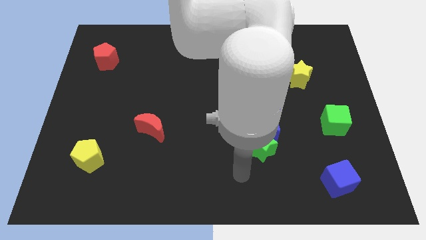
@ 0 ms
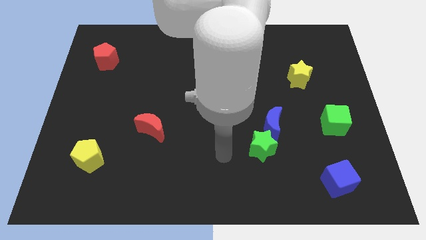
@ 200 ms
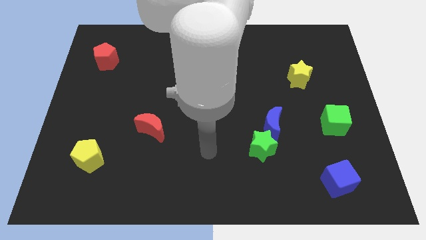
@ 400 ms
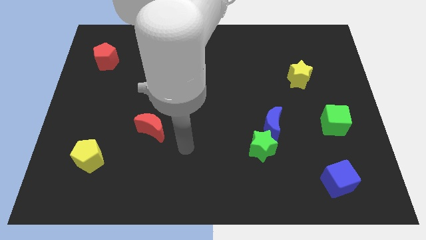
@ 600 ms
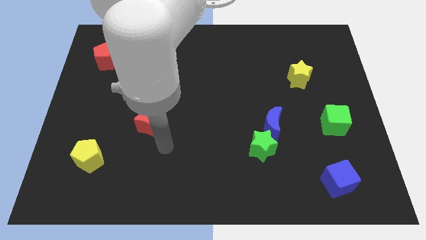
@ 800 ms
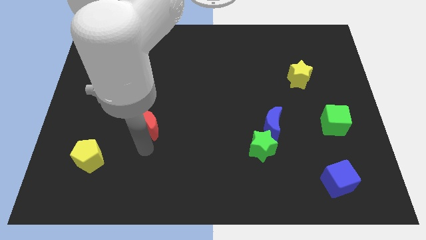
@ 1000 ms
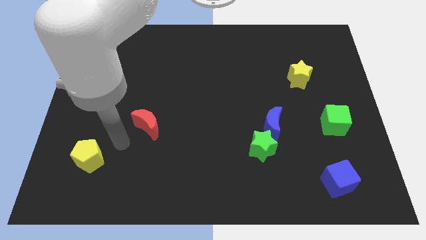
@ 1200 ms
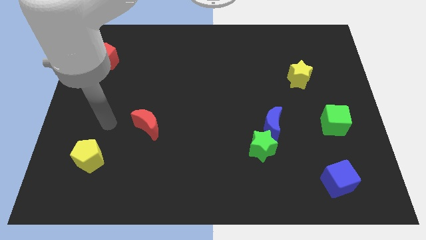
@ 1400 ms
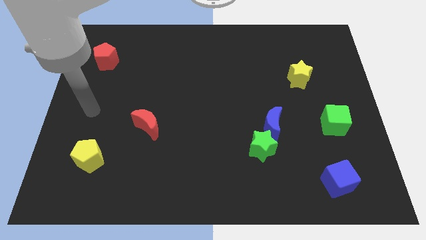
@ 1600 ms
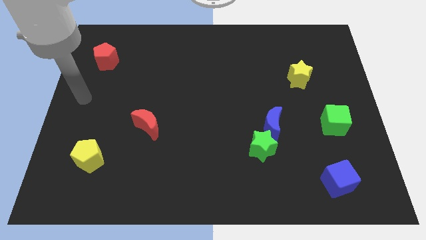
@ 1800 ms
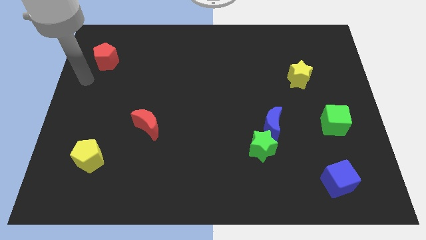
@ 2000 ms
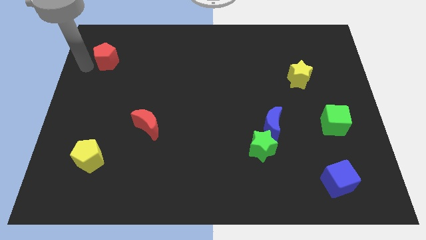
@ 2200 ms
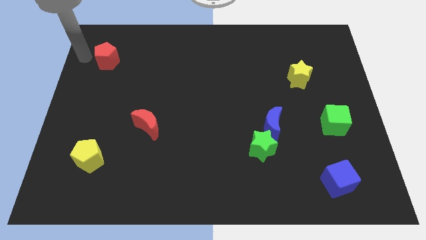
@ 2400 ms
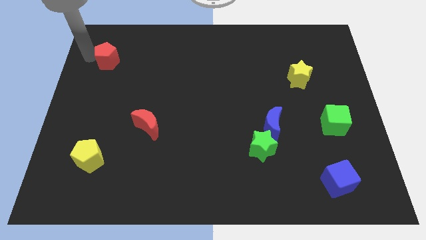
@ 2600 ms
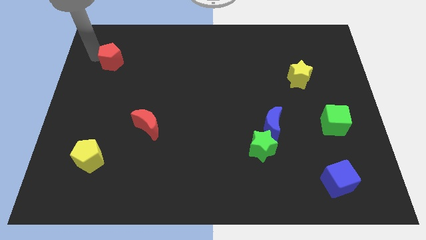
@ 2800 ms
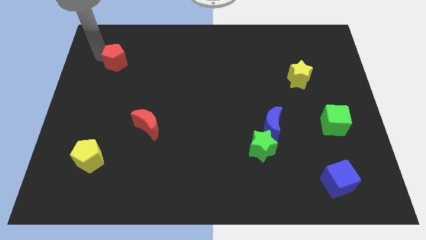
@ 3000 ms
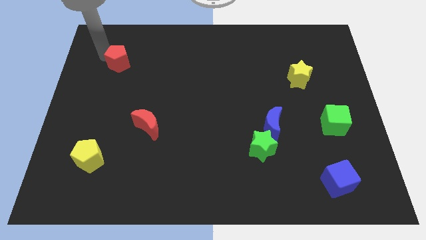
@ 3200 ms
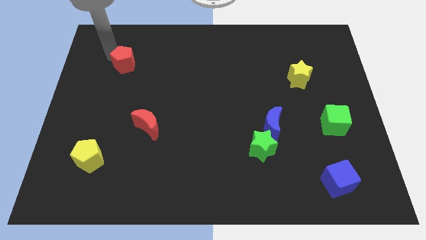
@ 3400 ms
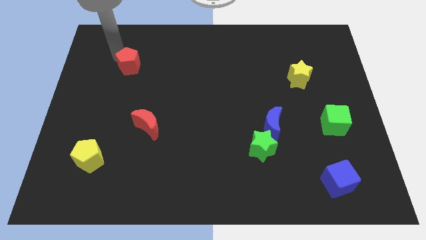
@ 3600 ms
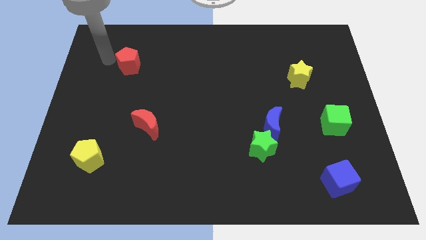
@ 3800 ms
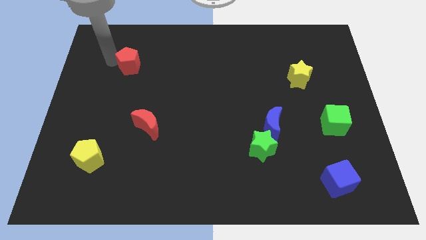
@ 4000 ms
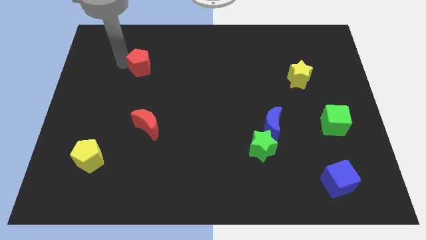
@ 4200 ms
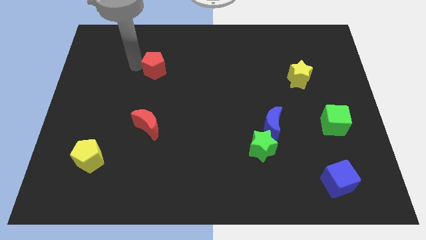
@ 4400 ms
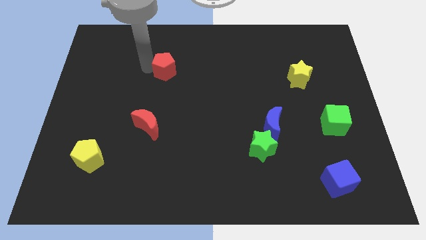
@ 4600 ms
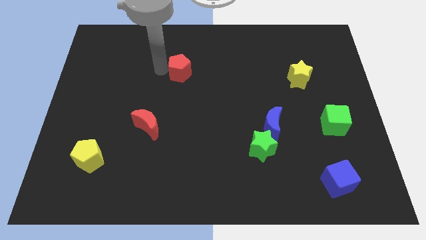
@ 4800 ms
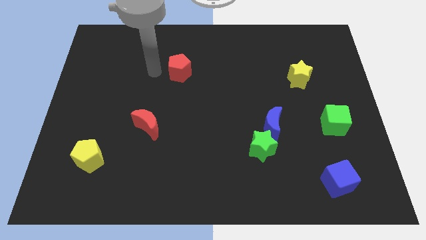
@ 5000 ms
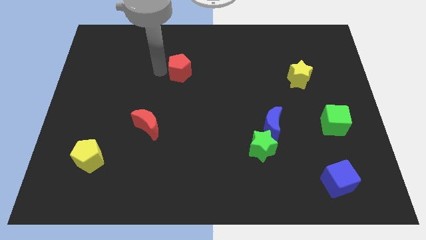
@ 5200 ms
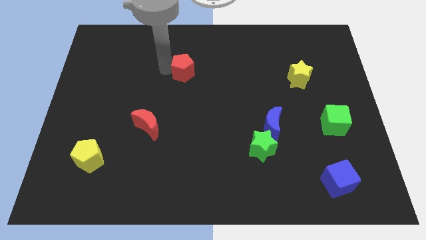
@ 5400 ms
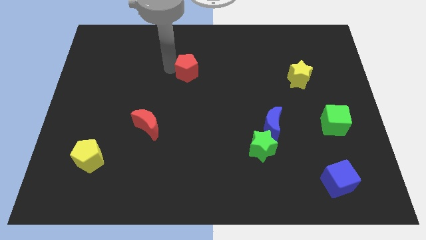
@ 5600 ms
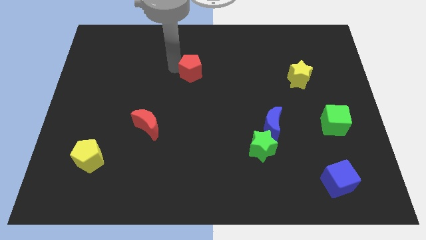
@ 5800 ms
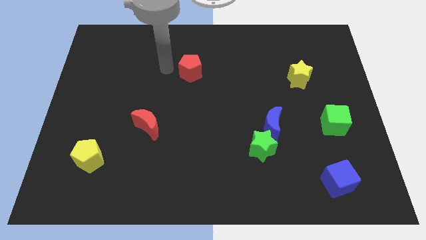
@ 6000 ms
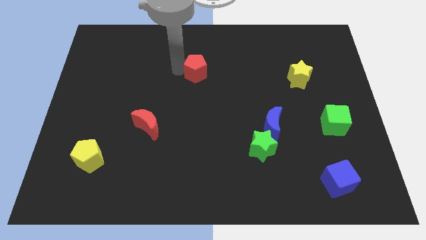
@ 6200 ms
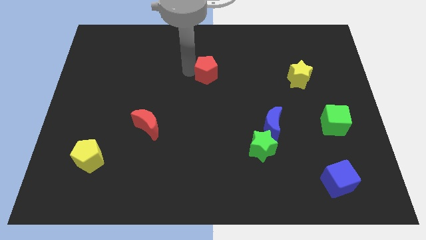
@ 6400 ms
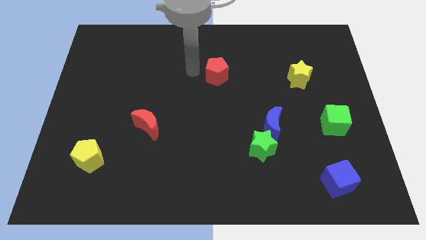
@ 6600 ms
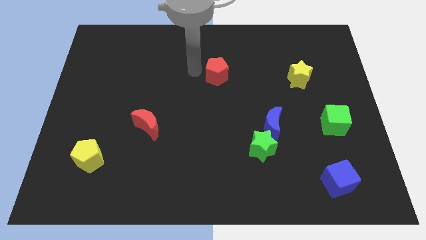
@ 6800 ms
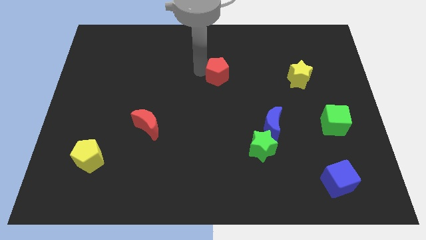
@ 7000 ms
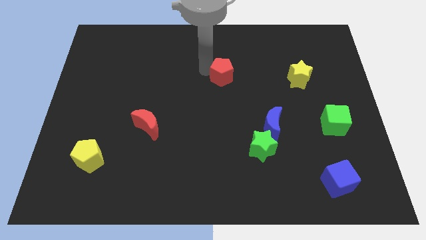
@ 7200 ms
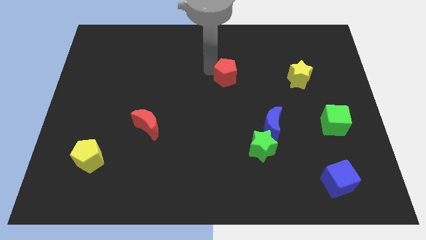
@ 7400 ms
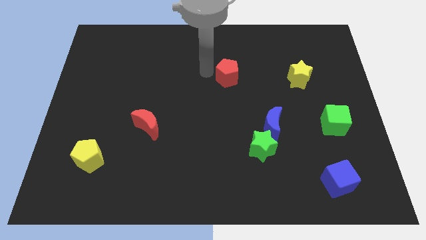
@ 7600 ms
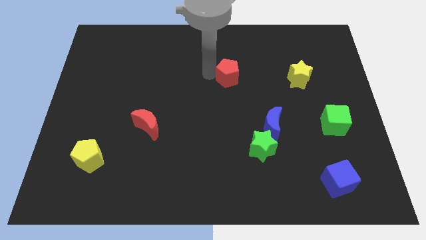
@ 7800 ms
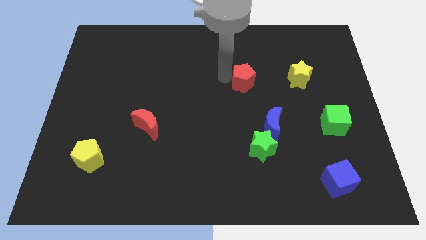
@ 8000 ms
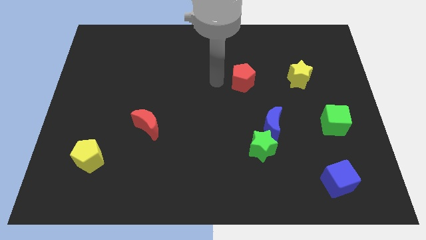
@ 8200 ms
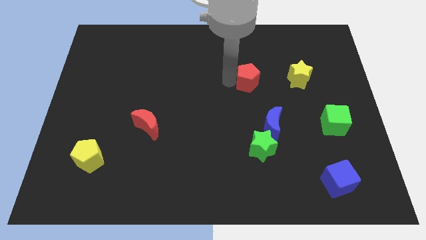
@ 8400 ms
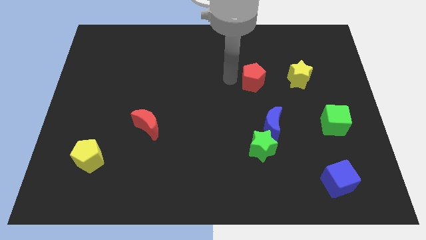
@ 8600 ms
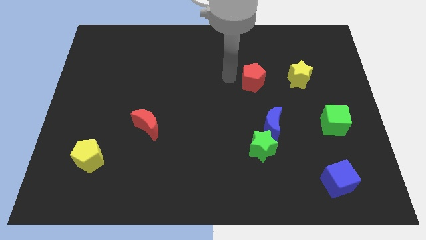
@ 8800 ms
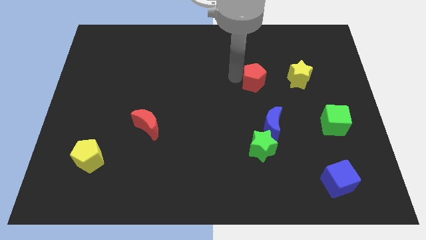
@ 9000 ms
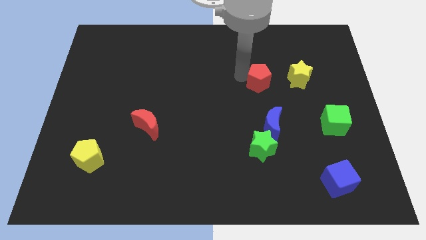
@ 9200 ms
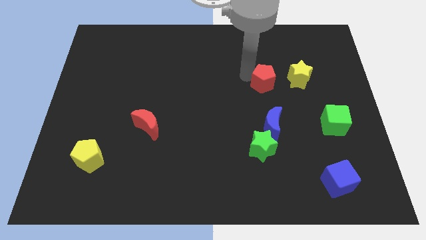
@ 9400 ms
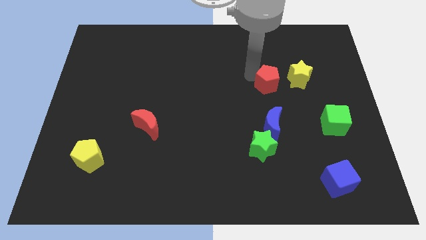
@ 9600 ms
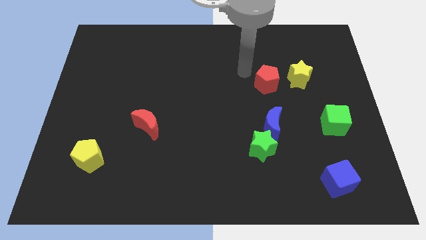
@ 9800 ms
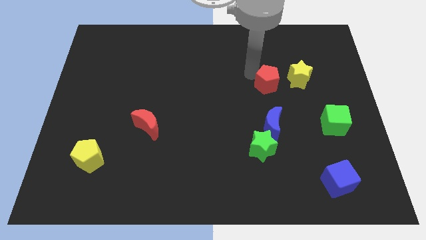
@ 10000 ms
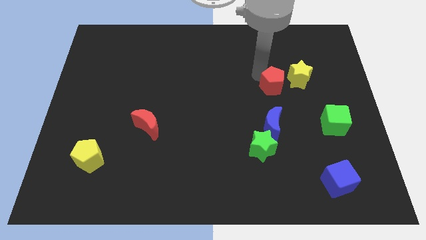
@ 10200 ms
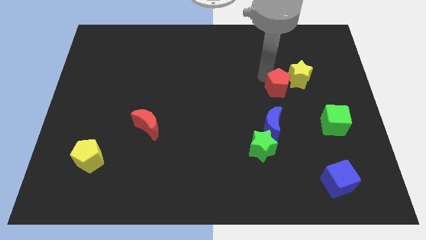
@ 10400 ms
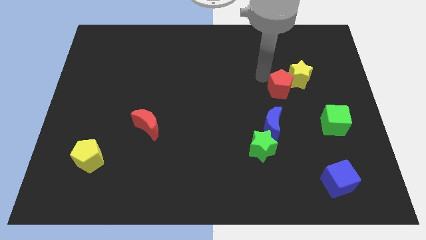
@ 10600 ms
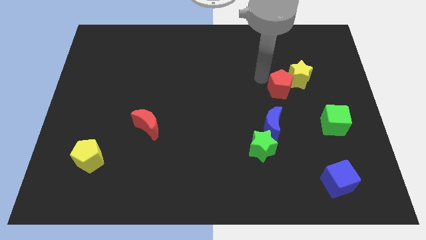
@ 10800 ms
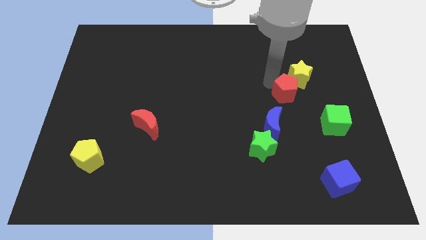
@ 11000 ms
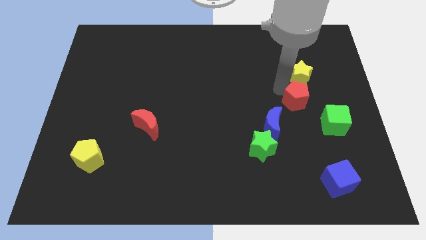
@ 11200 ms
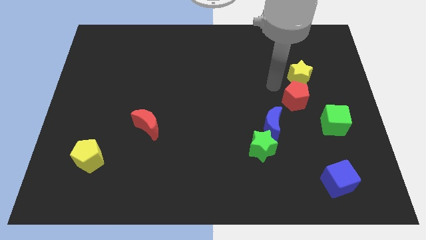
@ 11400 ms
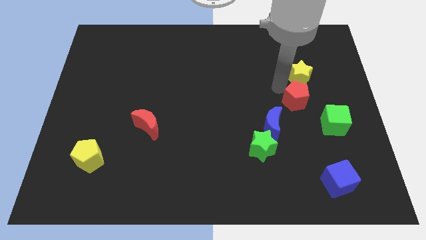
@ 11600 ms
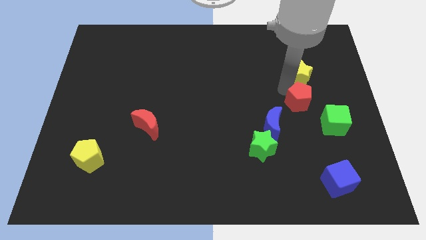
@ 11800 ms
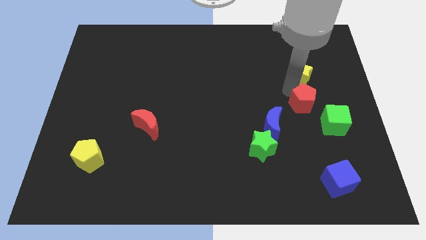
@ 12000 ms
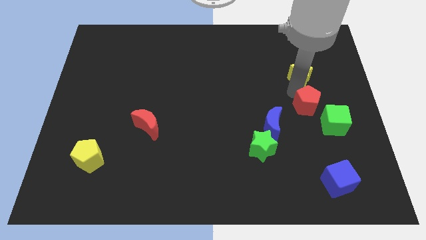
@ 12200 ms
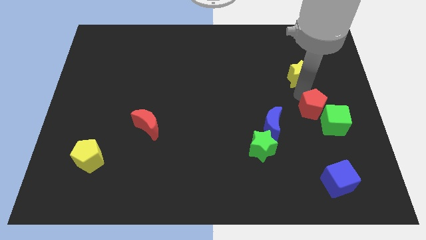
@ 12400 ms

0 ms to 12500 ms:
put the red pentagon towards the green cube

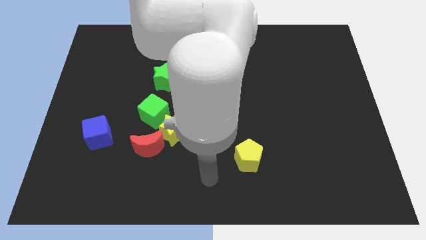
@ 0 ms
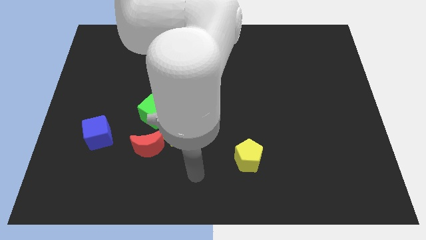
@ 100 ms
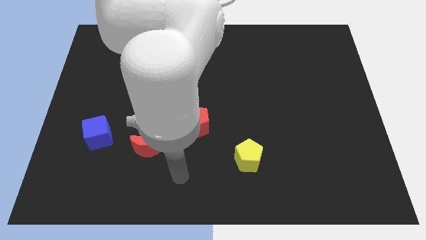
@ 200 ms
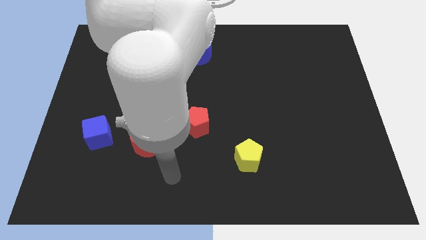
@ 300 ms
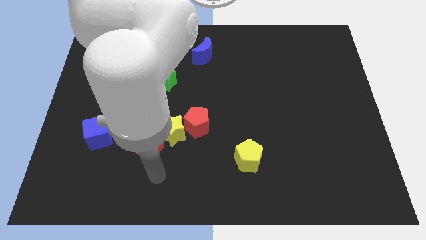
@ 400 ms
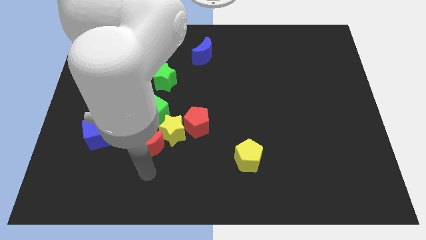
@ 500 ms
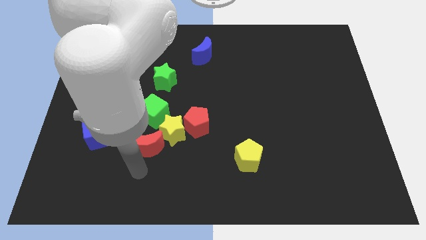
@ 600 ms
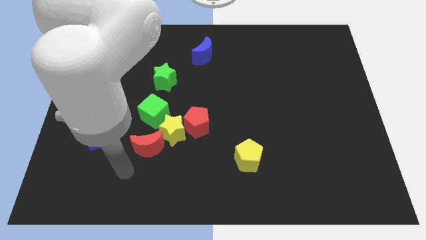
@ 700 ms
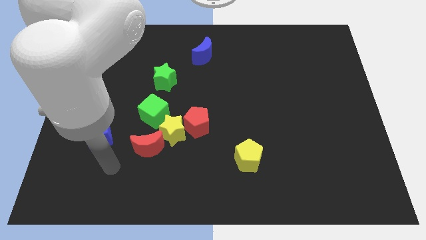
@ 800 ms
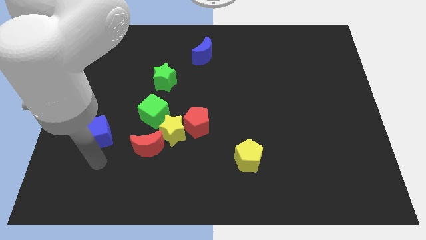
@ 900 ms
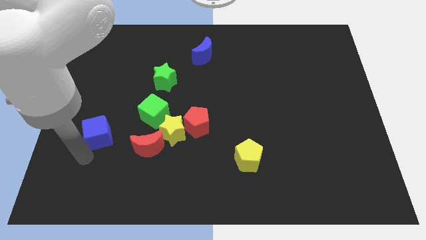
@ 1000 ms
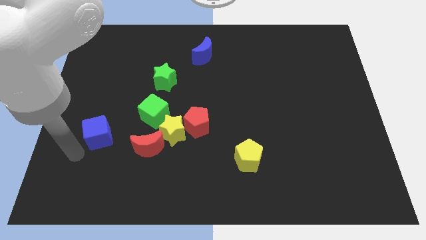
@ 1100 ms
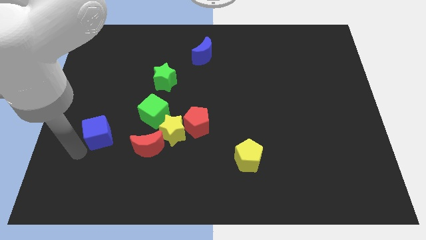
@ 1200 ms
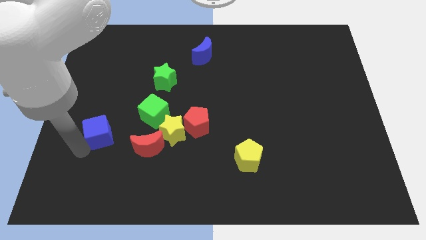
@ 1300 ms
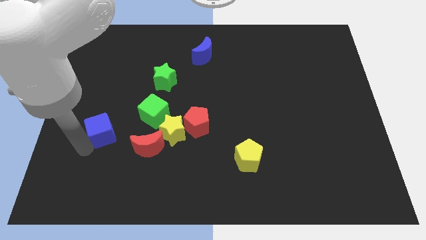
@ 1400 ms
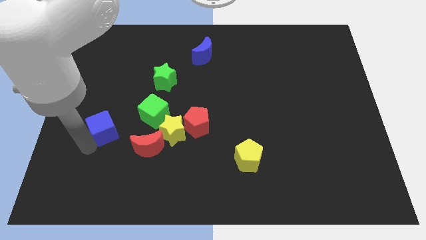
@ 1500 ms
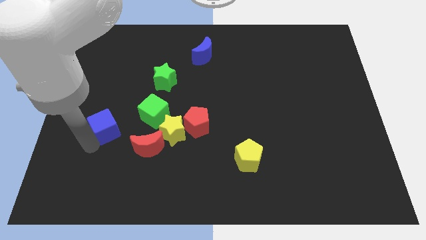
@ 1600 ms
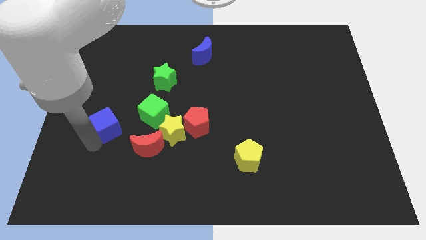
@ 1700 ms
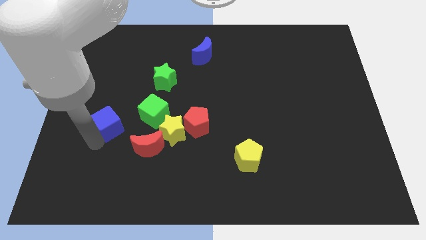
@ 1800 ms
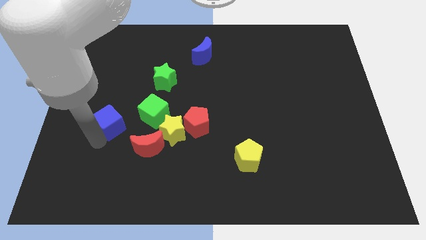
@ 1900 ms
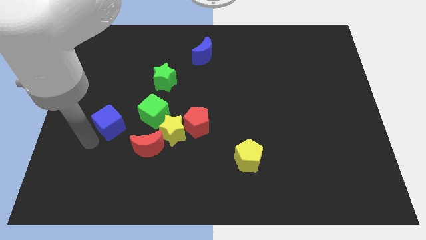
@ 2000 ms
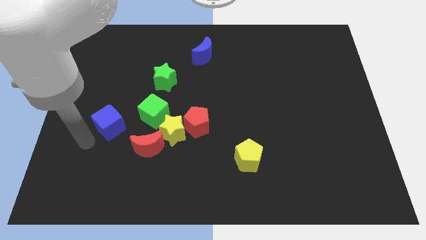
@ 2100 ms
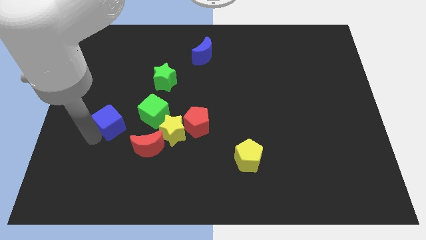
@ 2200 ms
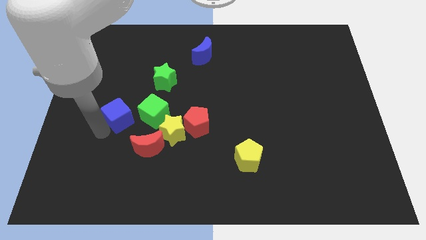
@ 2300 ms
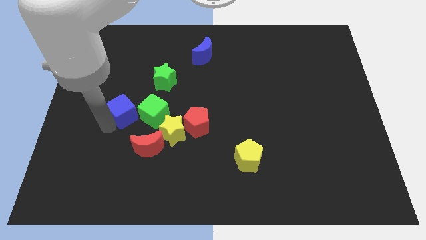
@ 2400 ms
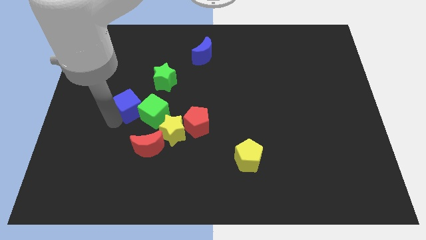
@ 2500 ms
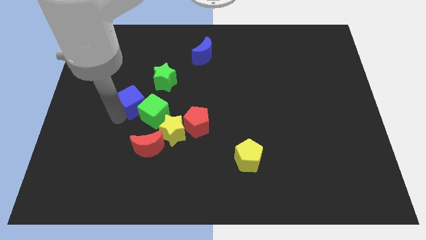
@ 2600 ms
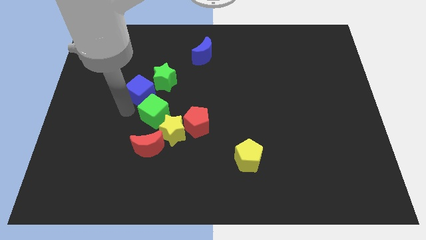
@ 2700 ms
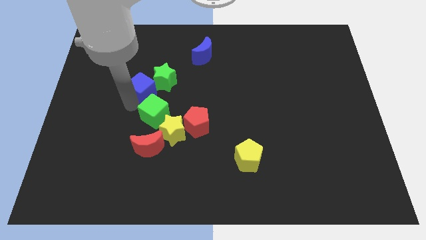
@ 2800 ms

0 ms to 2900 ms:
move the blue cube towards the green star
